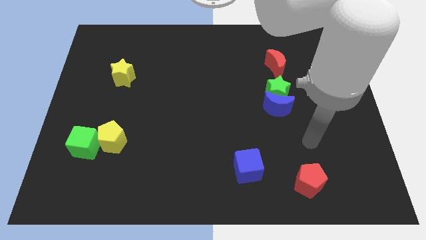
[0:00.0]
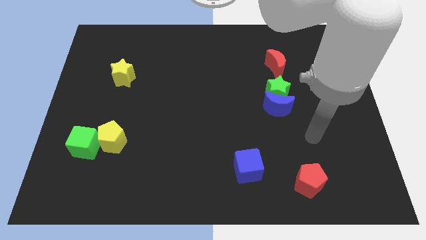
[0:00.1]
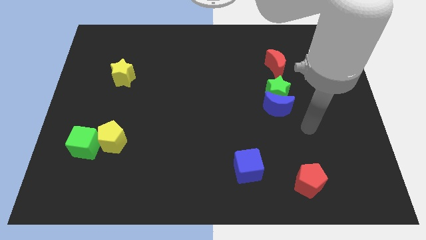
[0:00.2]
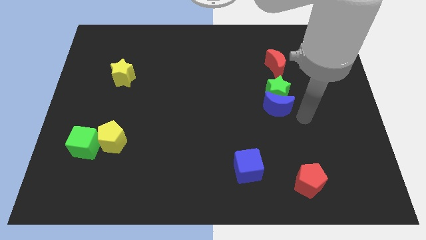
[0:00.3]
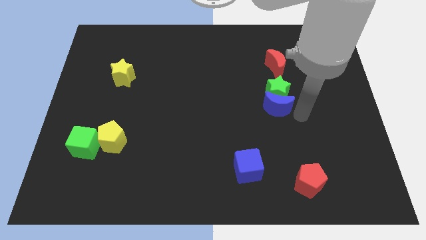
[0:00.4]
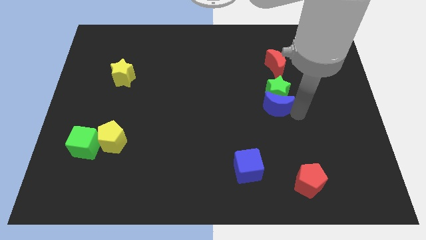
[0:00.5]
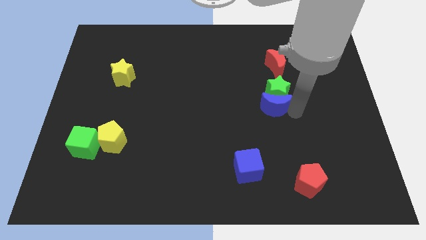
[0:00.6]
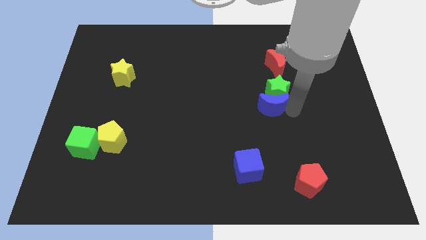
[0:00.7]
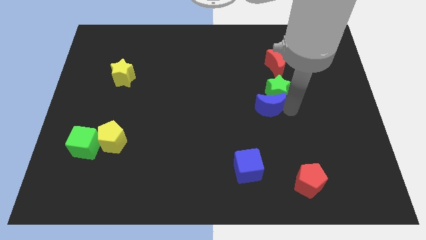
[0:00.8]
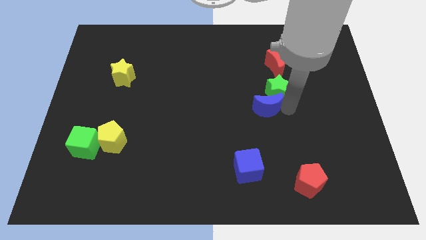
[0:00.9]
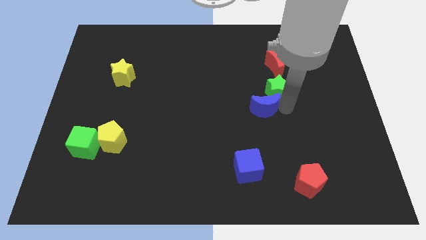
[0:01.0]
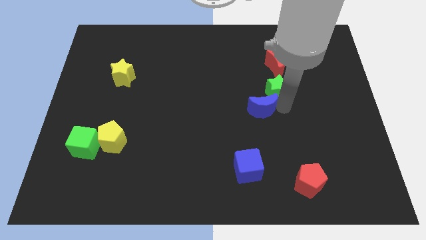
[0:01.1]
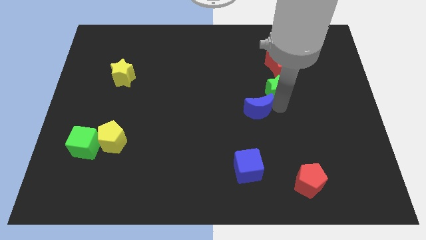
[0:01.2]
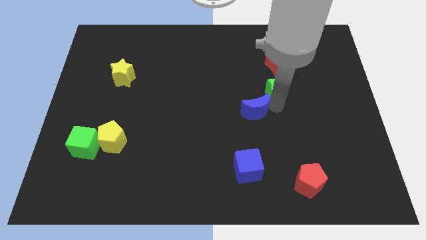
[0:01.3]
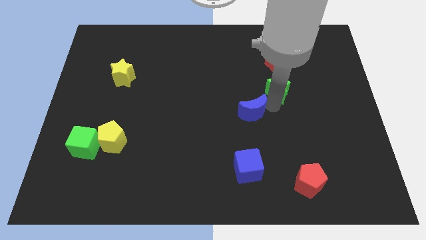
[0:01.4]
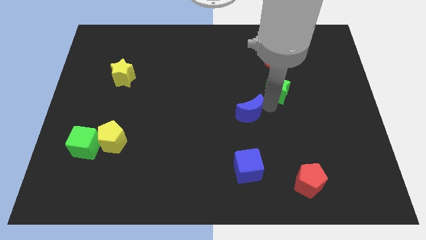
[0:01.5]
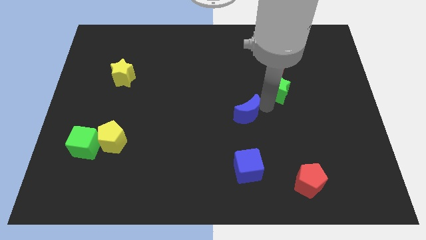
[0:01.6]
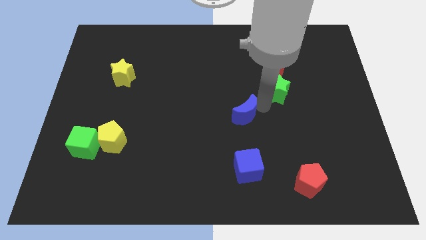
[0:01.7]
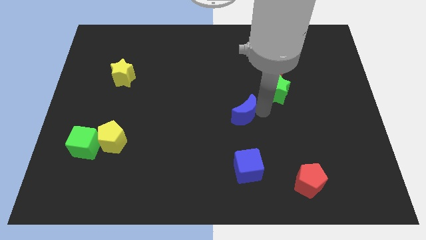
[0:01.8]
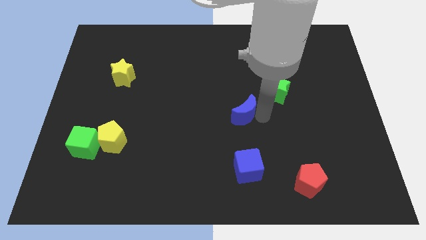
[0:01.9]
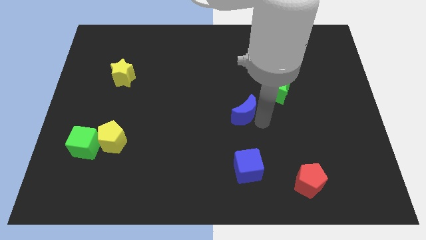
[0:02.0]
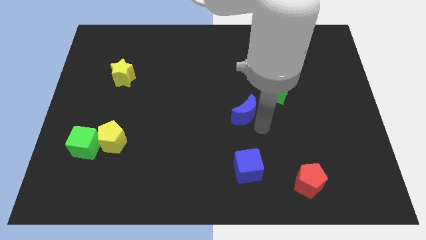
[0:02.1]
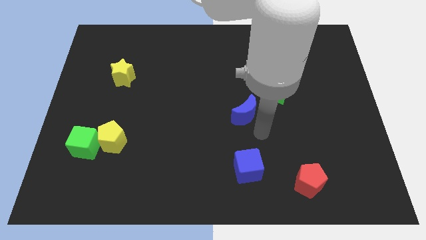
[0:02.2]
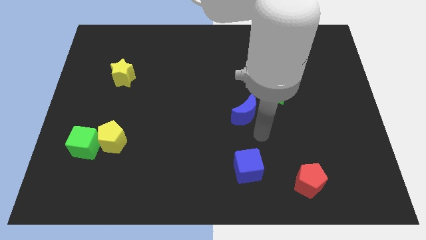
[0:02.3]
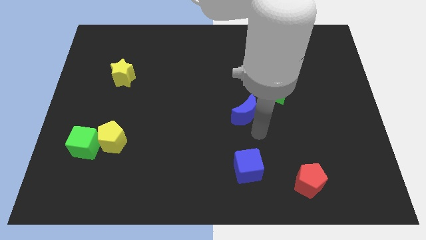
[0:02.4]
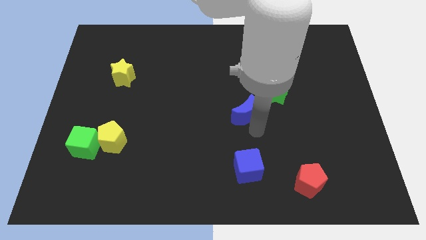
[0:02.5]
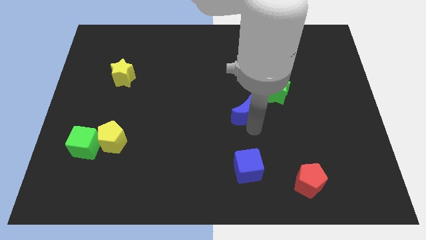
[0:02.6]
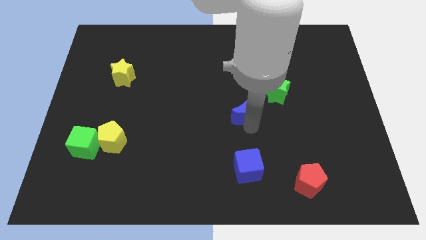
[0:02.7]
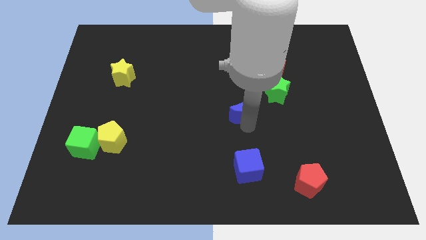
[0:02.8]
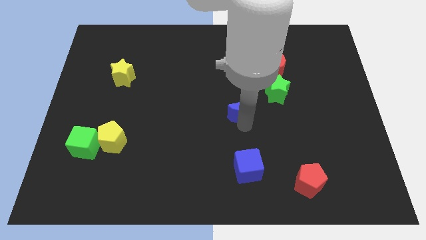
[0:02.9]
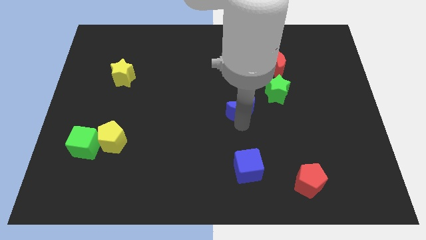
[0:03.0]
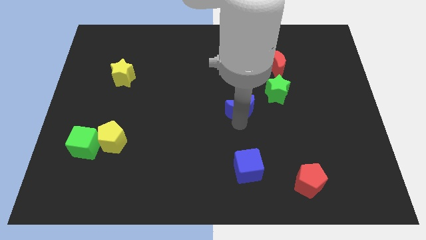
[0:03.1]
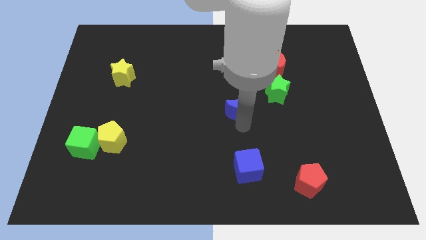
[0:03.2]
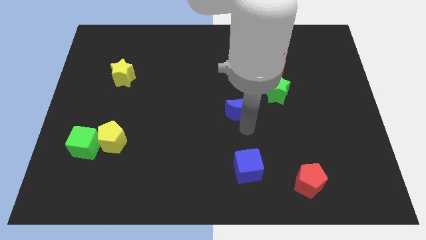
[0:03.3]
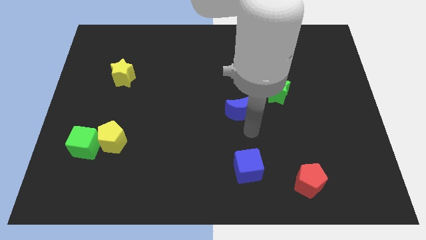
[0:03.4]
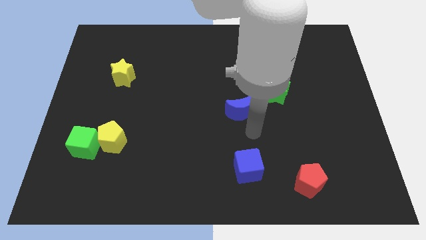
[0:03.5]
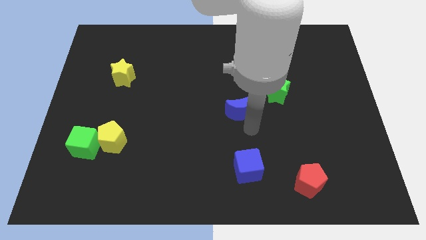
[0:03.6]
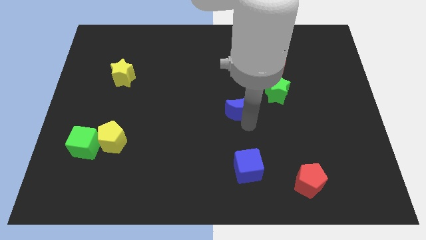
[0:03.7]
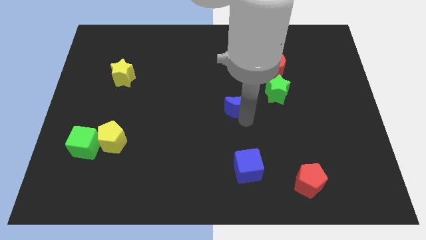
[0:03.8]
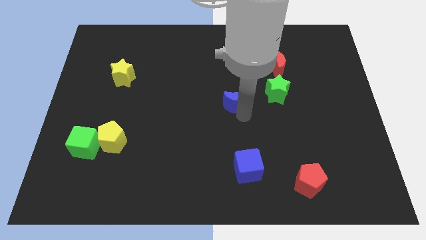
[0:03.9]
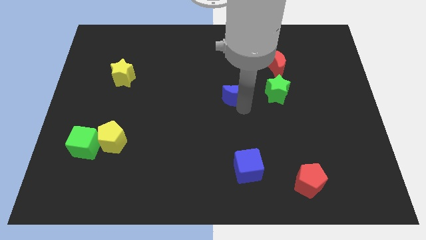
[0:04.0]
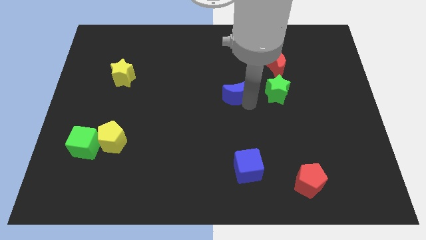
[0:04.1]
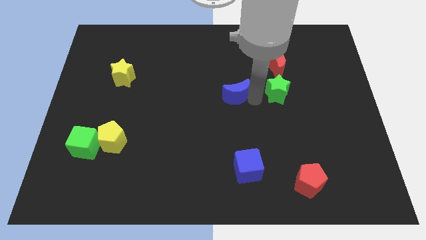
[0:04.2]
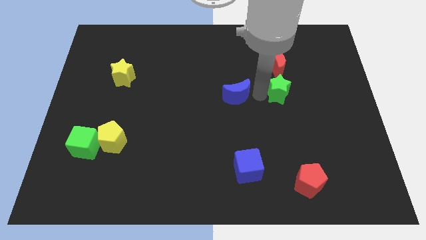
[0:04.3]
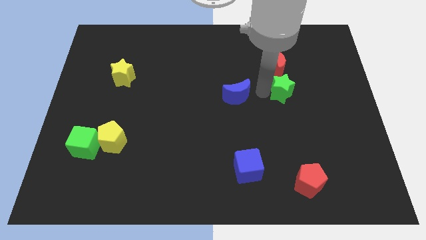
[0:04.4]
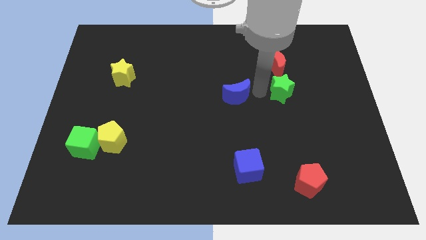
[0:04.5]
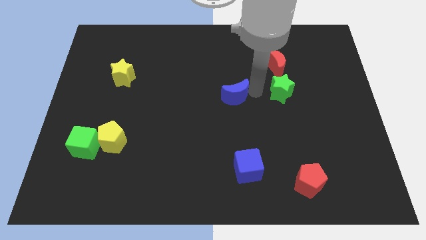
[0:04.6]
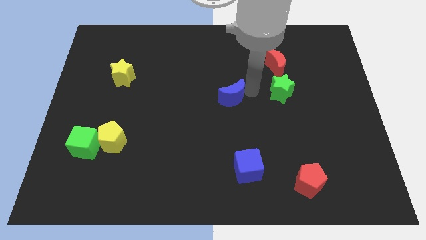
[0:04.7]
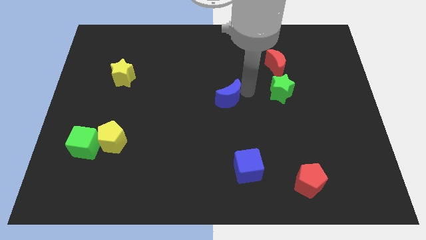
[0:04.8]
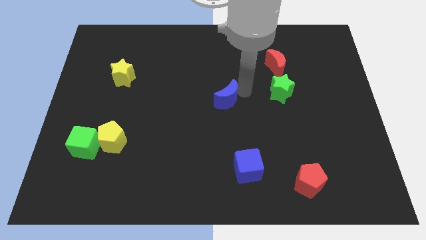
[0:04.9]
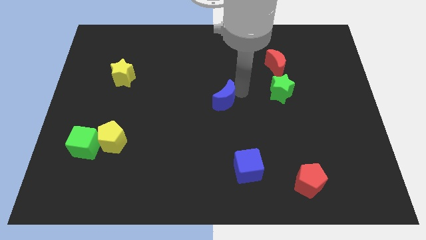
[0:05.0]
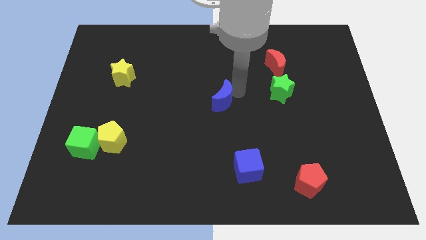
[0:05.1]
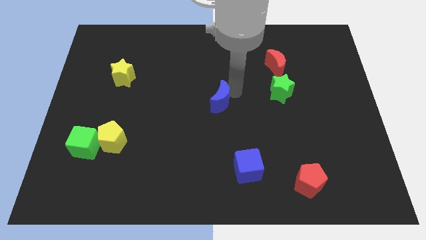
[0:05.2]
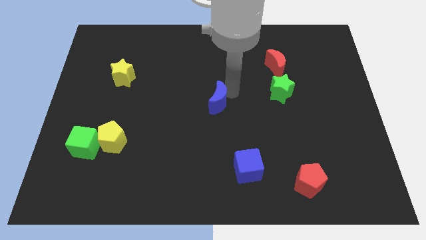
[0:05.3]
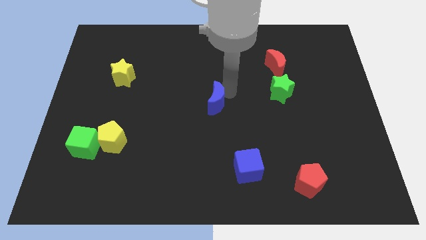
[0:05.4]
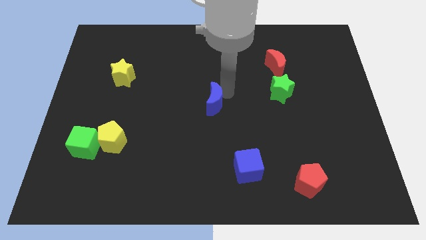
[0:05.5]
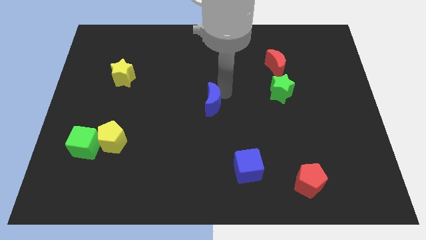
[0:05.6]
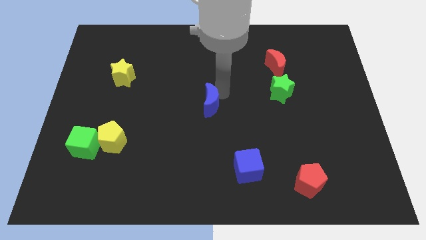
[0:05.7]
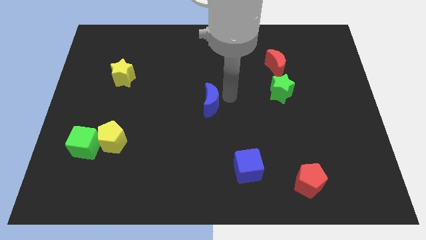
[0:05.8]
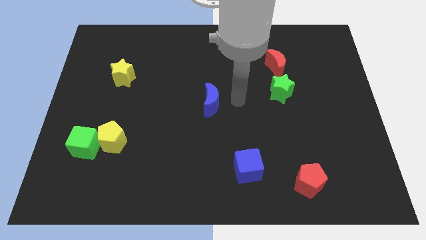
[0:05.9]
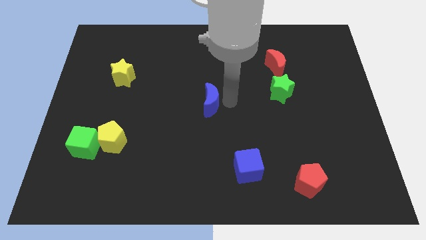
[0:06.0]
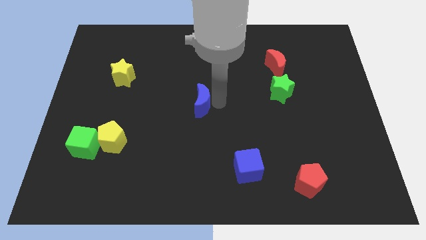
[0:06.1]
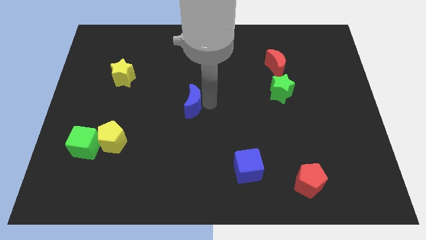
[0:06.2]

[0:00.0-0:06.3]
push the blue moon left

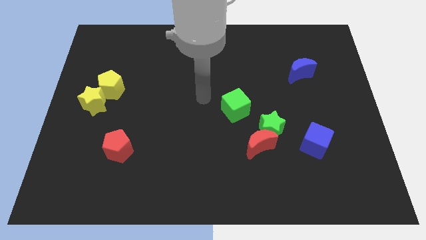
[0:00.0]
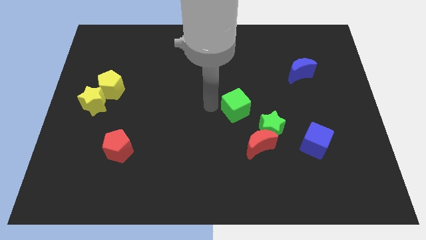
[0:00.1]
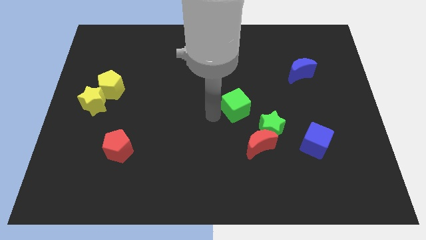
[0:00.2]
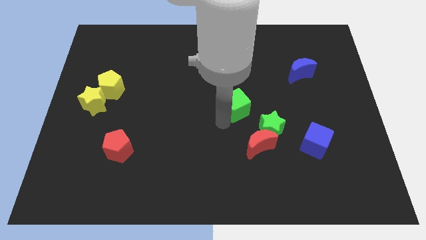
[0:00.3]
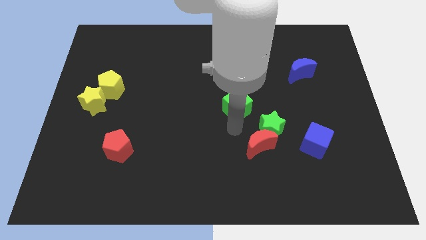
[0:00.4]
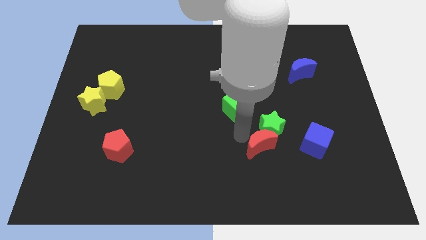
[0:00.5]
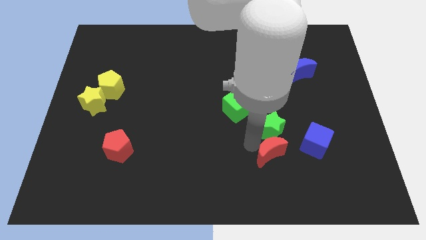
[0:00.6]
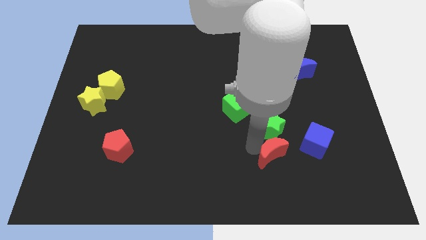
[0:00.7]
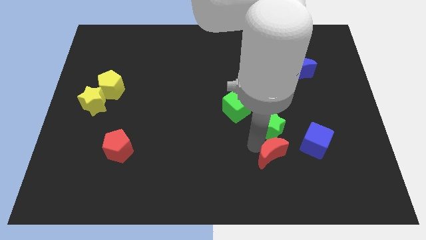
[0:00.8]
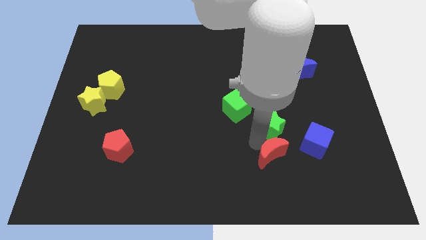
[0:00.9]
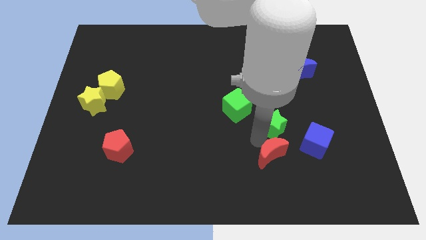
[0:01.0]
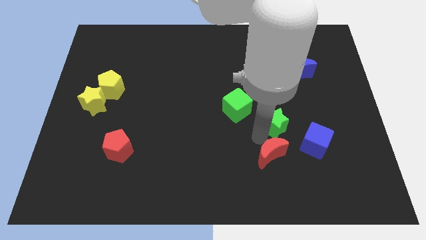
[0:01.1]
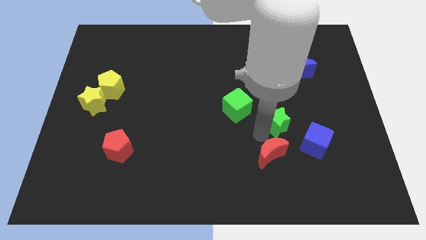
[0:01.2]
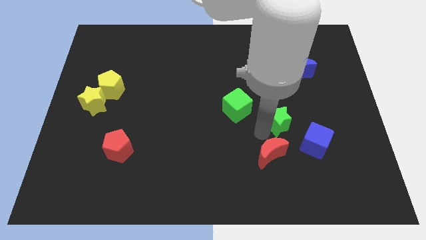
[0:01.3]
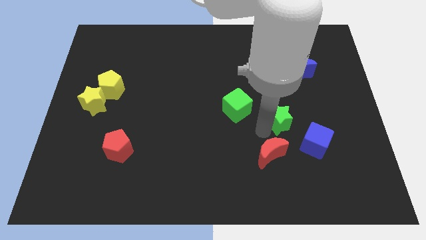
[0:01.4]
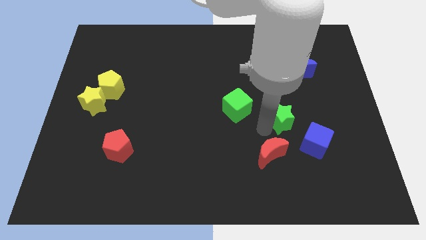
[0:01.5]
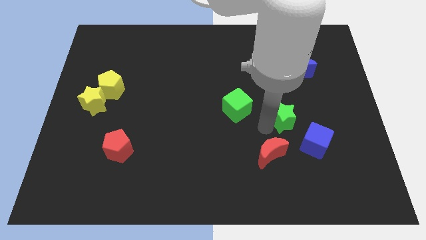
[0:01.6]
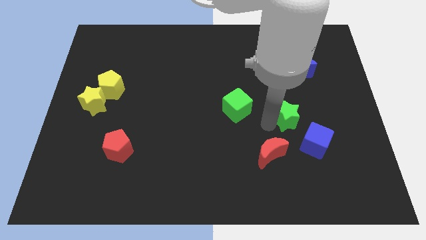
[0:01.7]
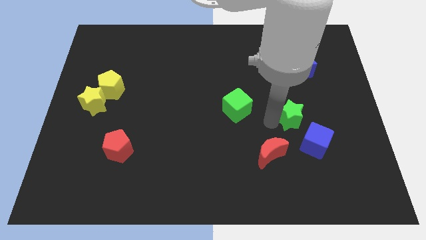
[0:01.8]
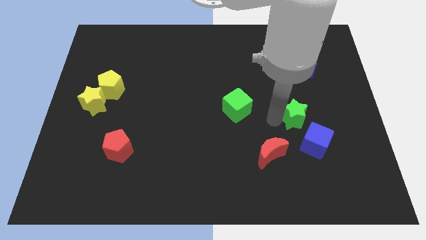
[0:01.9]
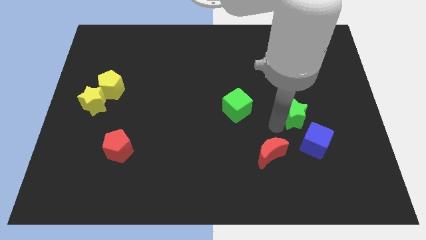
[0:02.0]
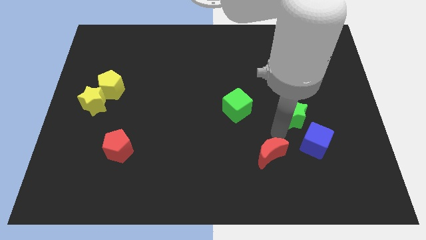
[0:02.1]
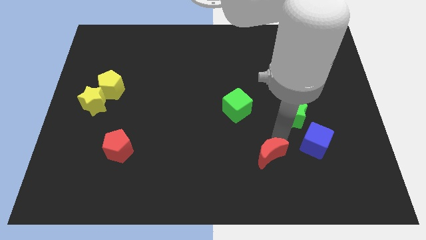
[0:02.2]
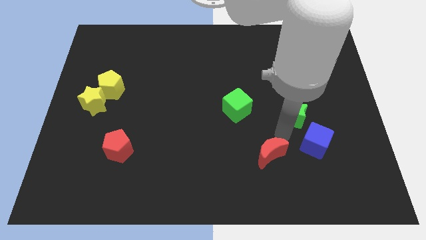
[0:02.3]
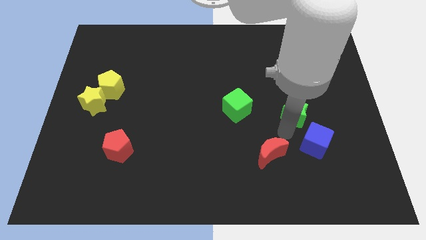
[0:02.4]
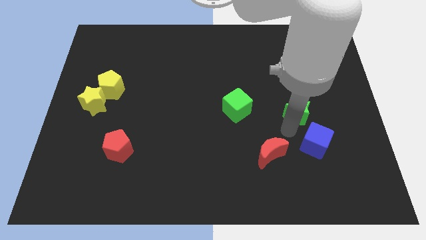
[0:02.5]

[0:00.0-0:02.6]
slightly push the green star up and to the right diagonally
